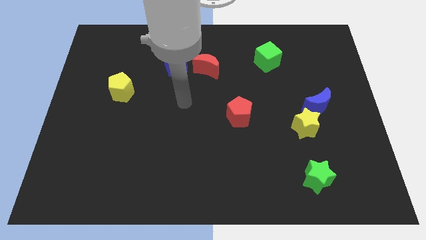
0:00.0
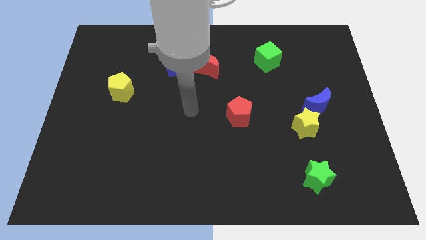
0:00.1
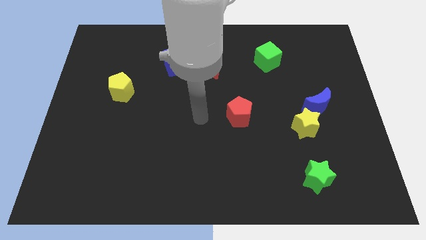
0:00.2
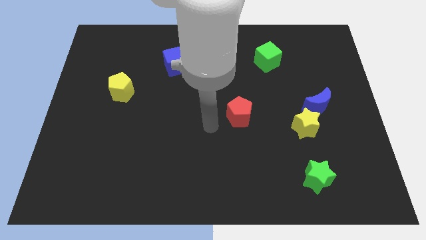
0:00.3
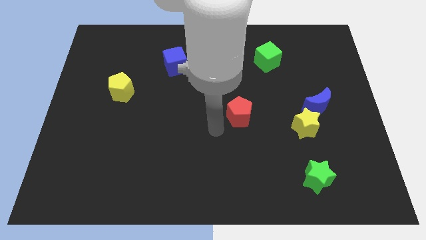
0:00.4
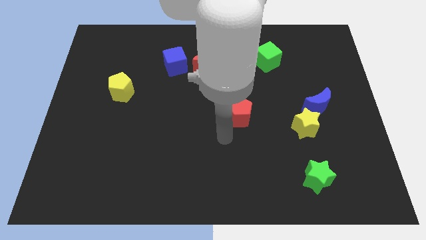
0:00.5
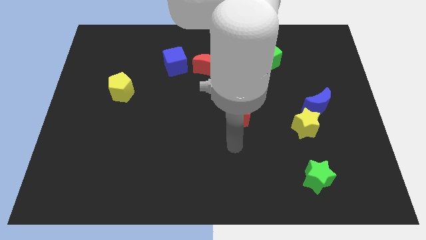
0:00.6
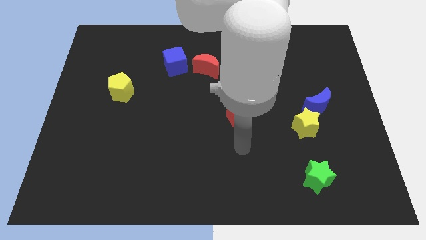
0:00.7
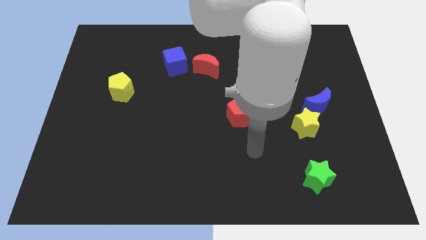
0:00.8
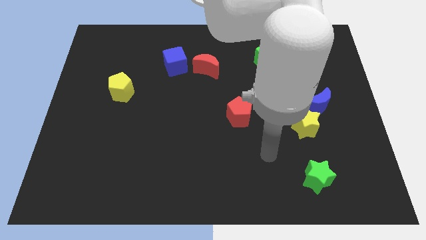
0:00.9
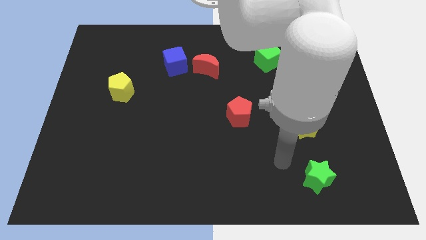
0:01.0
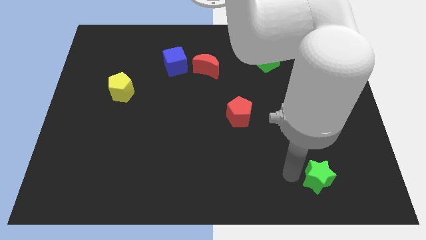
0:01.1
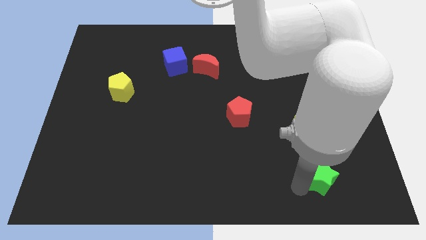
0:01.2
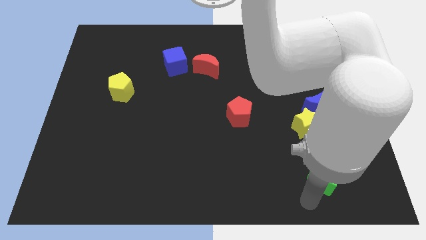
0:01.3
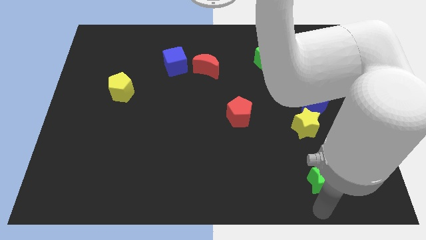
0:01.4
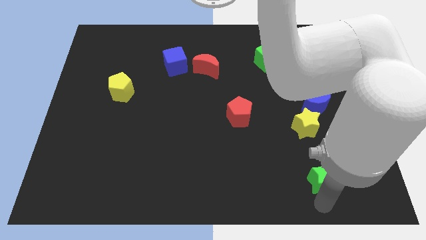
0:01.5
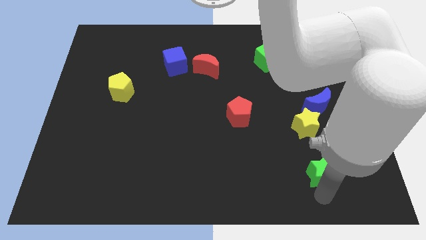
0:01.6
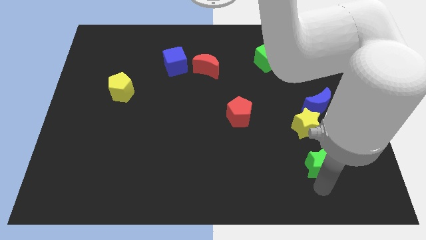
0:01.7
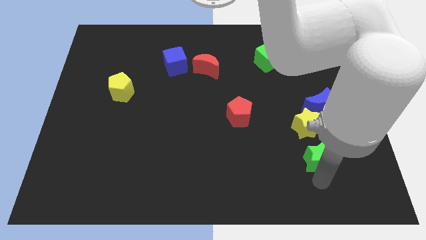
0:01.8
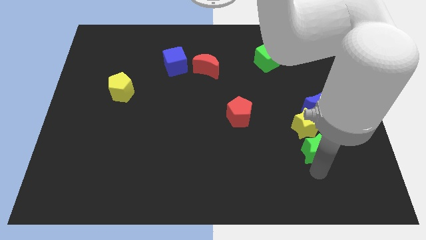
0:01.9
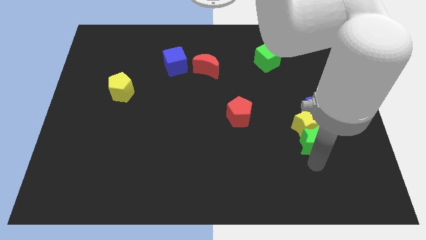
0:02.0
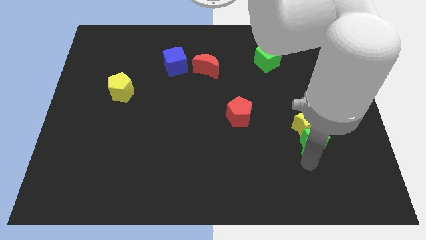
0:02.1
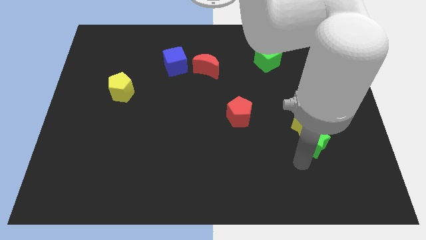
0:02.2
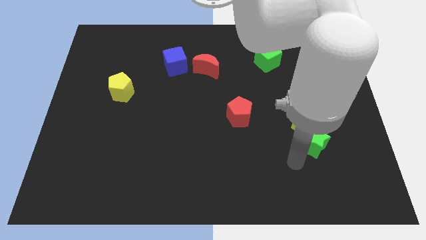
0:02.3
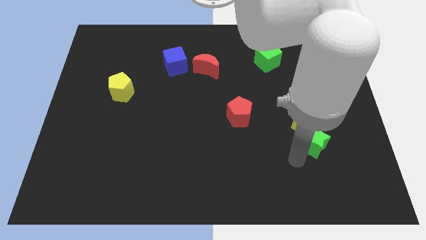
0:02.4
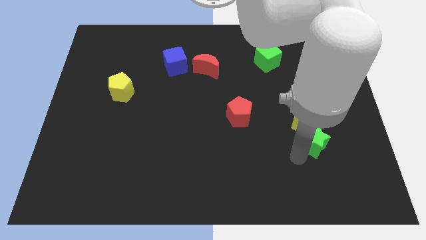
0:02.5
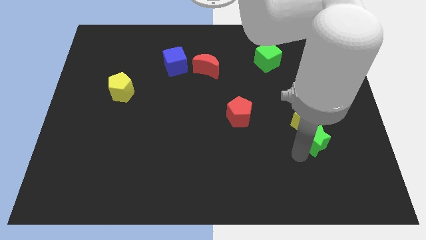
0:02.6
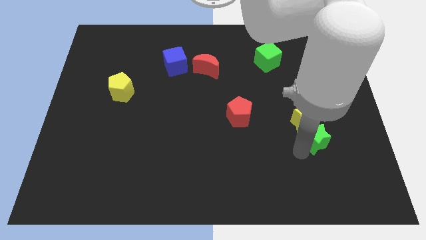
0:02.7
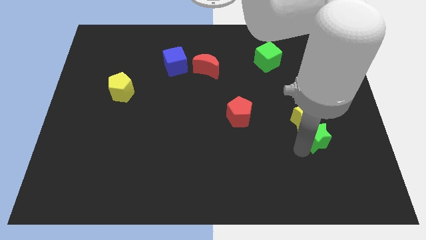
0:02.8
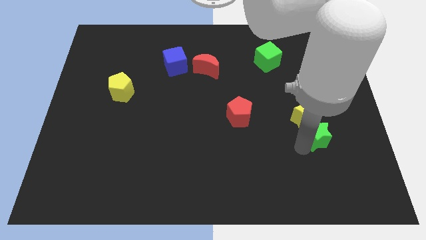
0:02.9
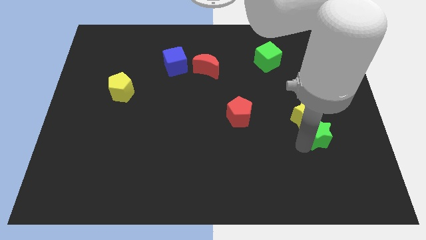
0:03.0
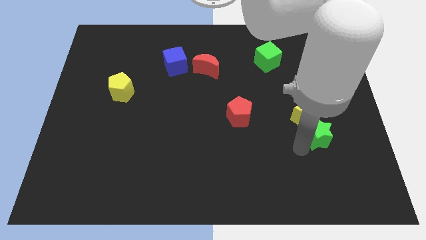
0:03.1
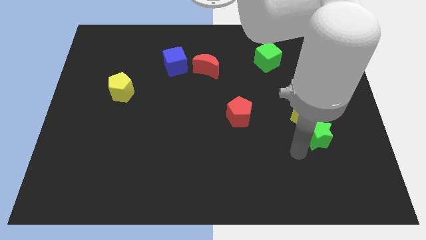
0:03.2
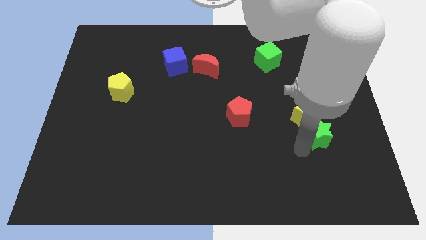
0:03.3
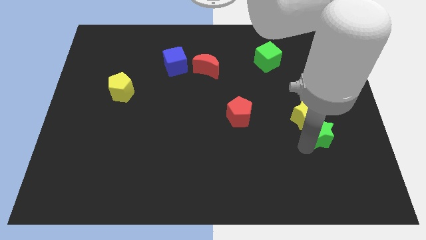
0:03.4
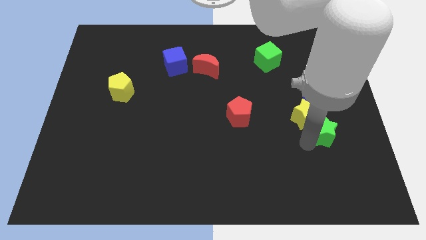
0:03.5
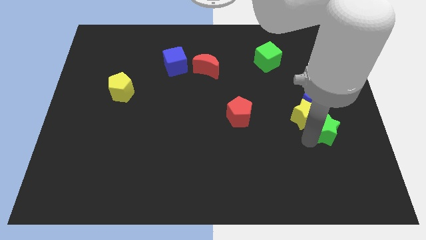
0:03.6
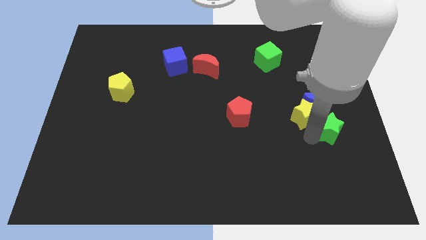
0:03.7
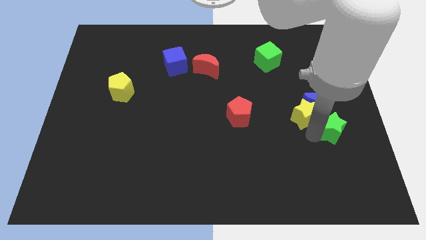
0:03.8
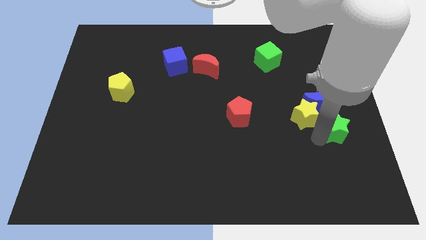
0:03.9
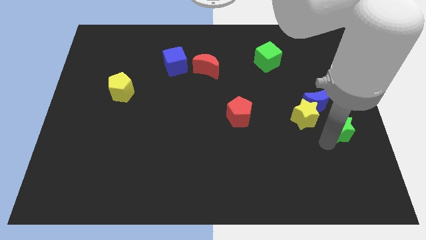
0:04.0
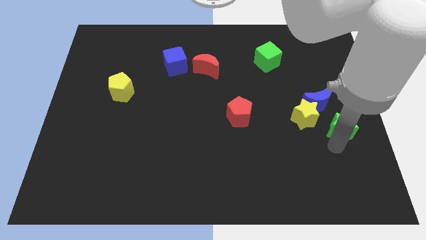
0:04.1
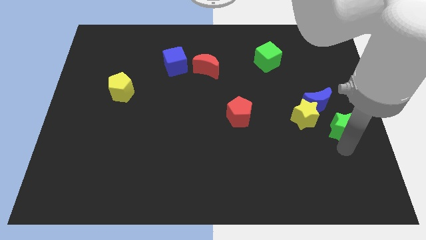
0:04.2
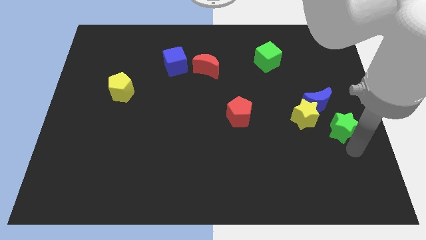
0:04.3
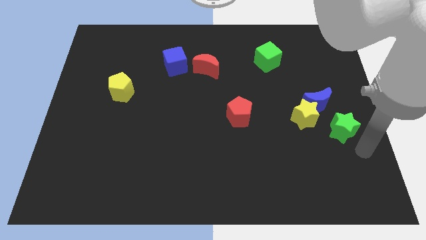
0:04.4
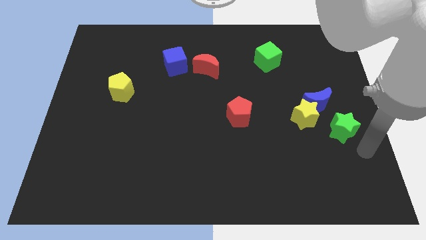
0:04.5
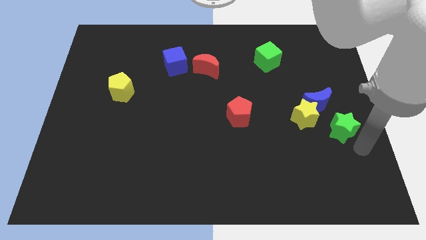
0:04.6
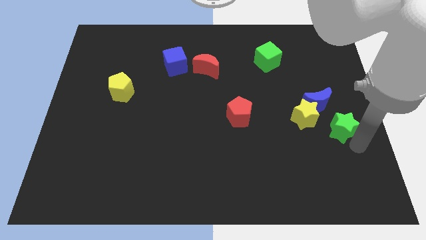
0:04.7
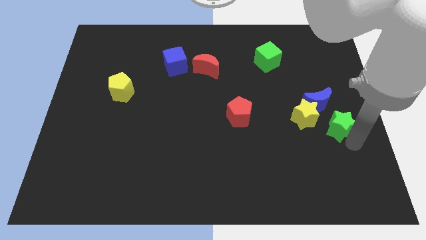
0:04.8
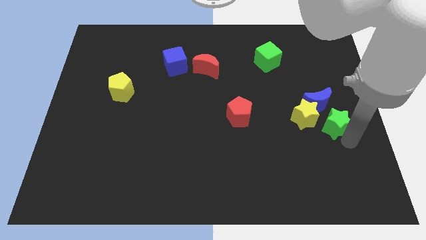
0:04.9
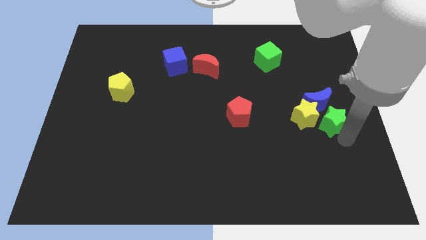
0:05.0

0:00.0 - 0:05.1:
slide the green star towards the blue moon

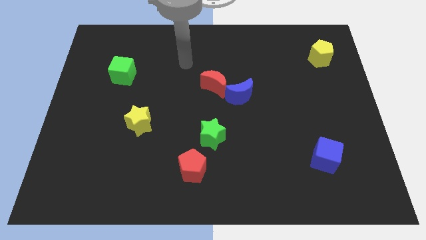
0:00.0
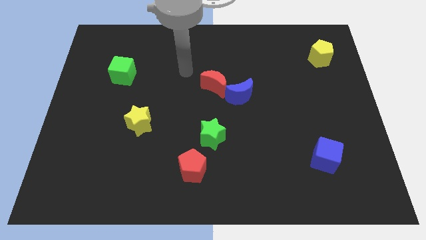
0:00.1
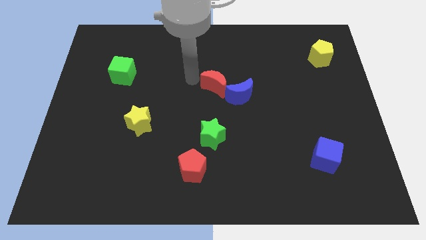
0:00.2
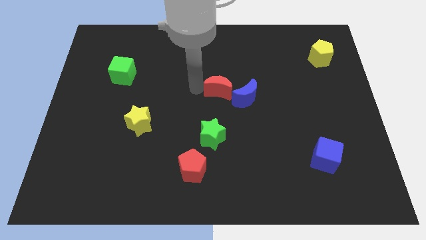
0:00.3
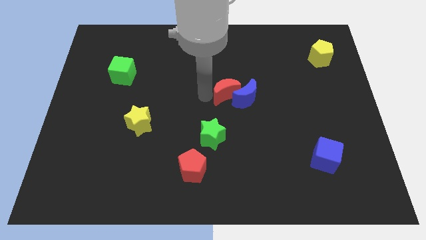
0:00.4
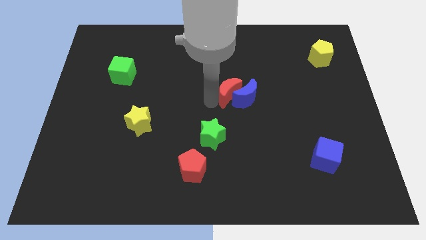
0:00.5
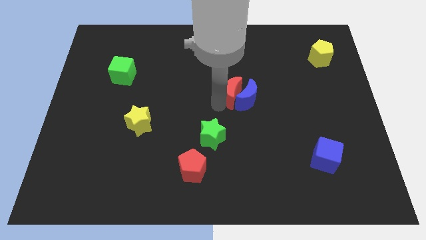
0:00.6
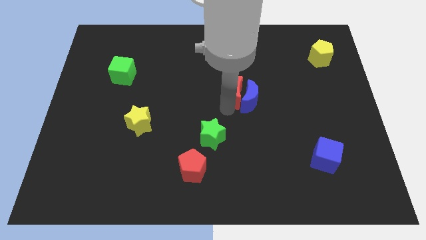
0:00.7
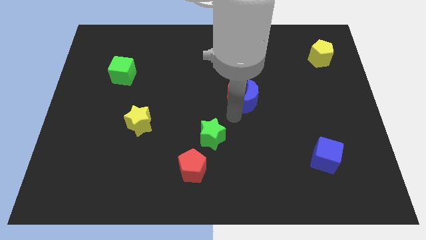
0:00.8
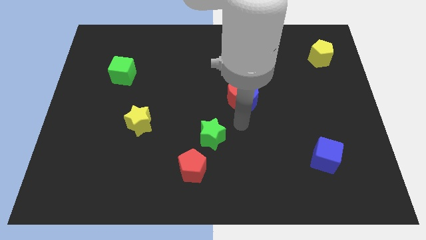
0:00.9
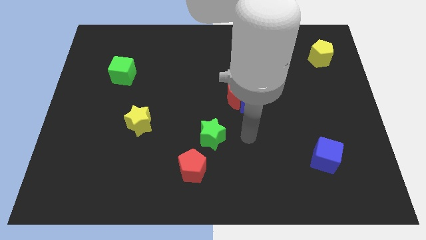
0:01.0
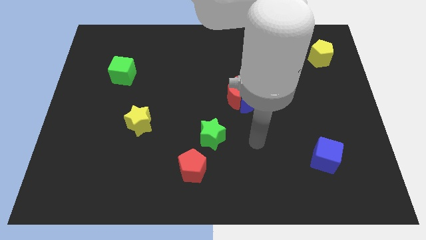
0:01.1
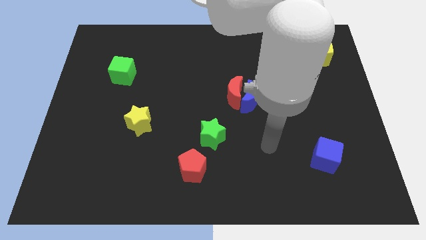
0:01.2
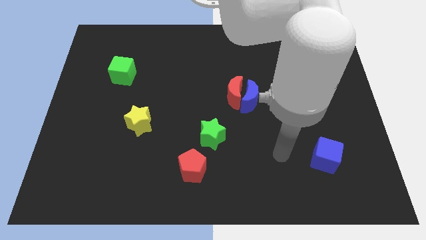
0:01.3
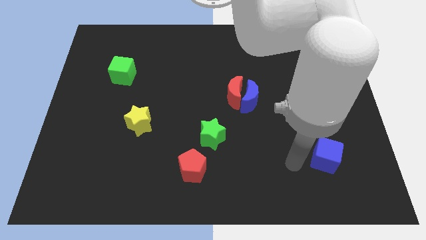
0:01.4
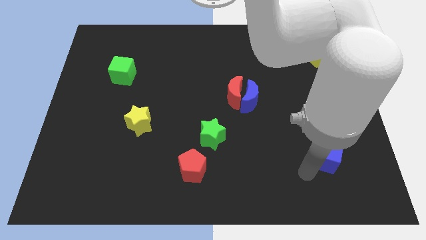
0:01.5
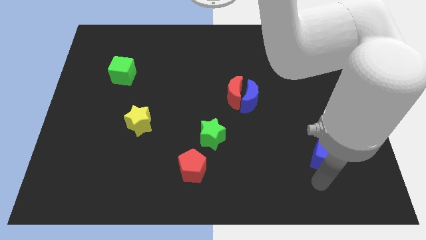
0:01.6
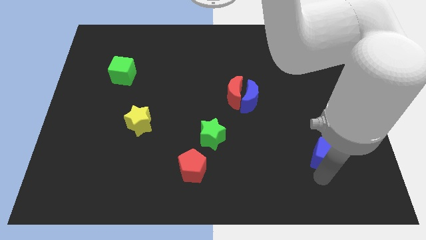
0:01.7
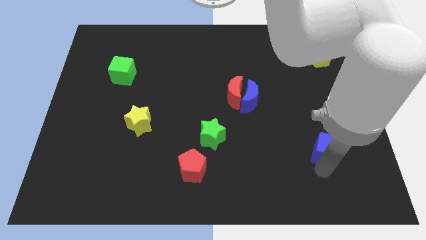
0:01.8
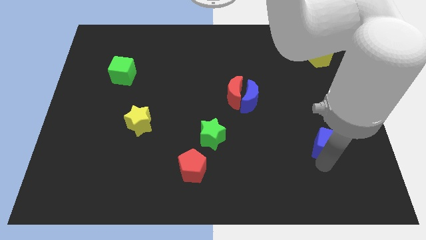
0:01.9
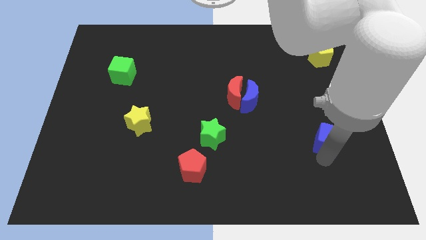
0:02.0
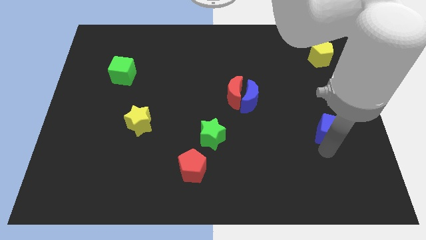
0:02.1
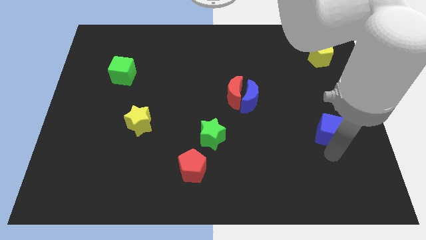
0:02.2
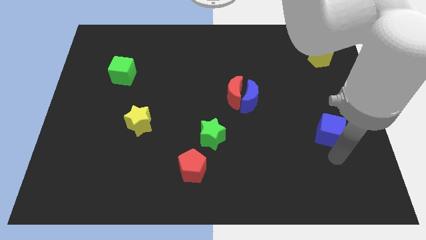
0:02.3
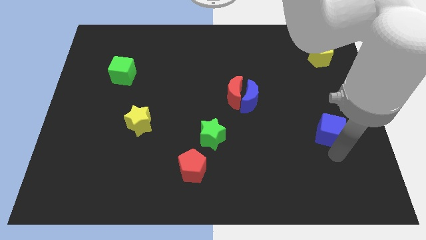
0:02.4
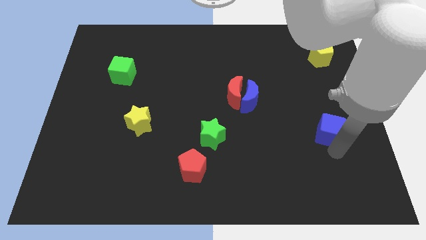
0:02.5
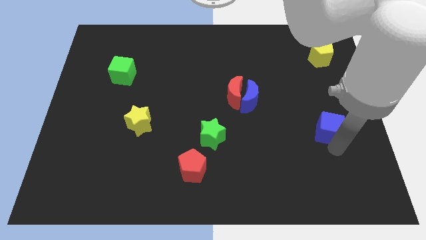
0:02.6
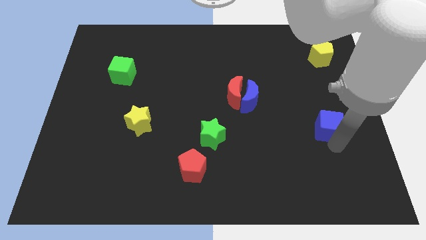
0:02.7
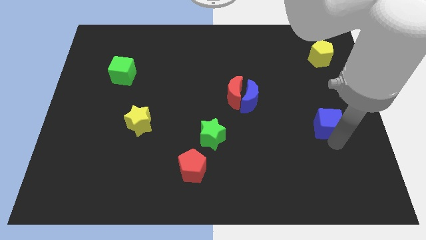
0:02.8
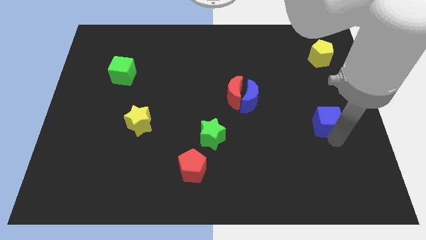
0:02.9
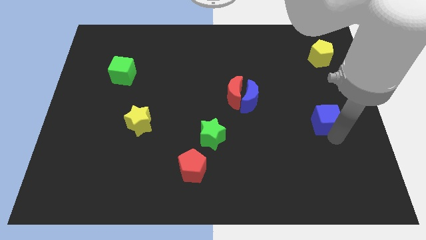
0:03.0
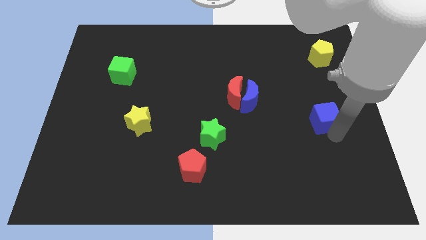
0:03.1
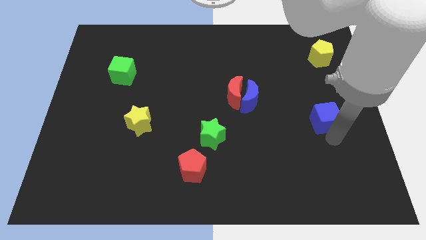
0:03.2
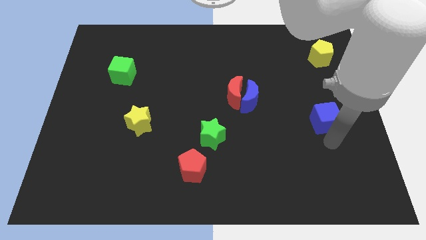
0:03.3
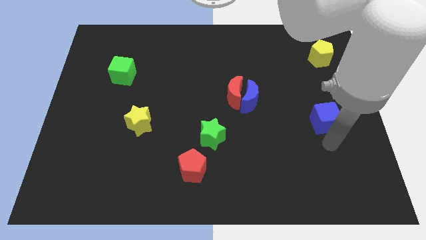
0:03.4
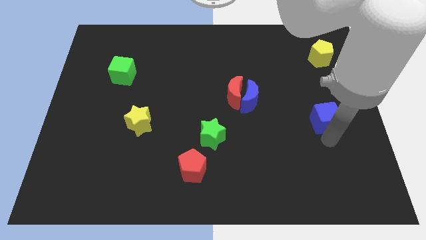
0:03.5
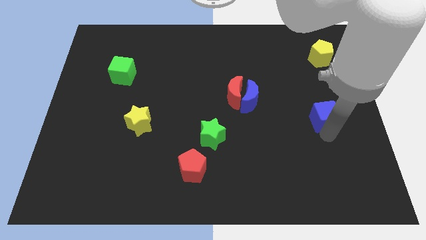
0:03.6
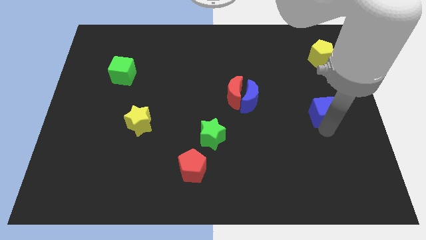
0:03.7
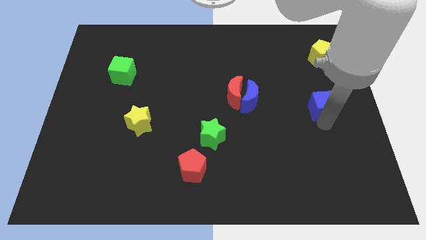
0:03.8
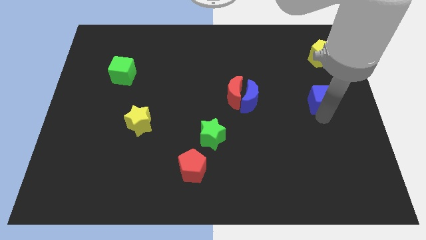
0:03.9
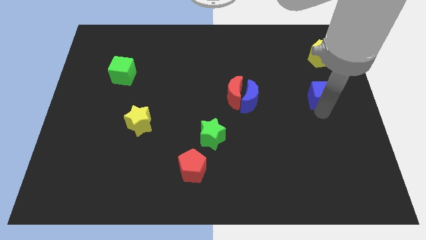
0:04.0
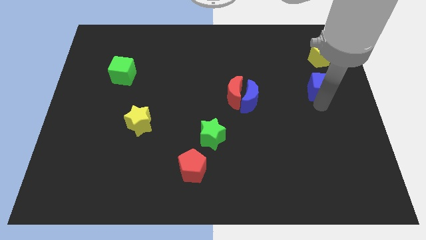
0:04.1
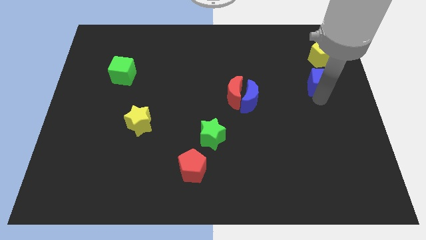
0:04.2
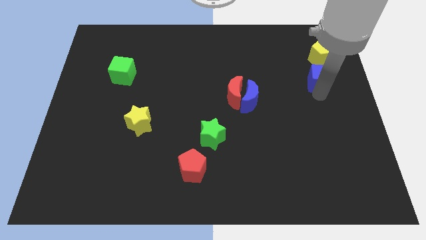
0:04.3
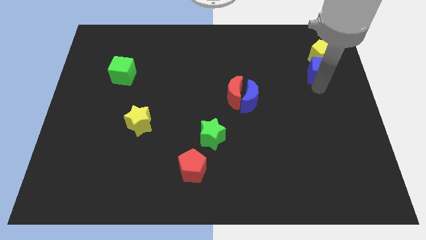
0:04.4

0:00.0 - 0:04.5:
move the blue cube close to the yellow pentagon
